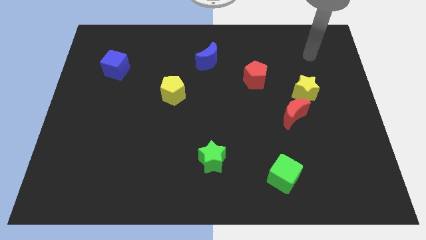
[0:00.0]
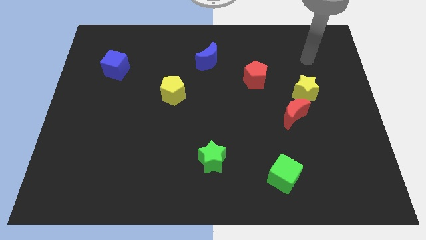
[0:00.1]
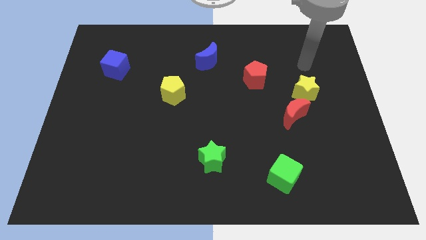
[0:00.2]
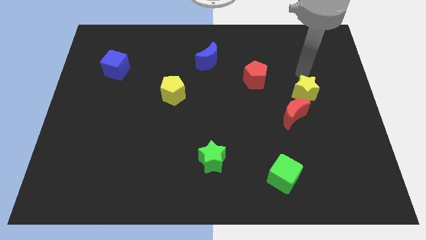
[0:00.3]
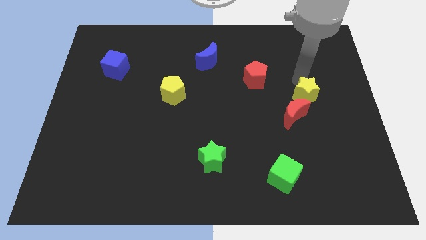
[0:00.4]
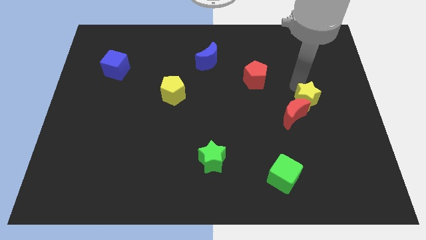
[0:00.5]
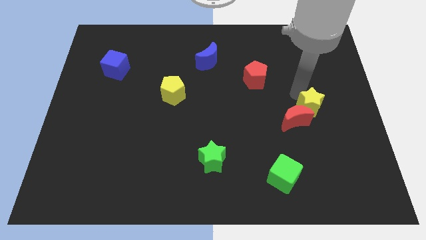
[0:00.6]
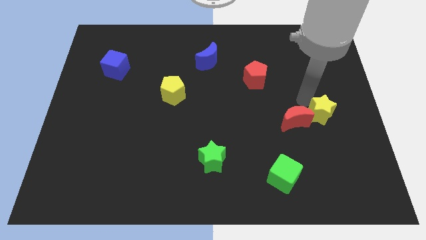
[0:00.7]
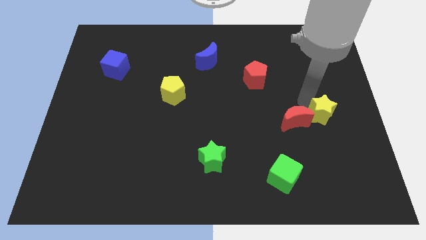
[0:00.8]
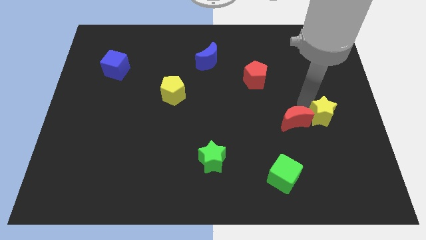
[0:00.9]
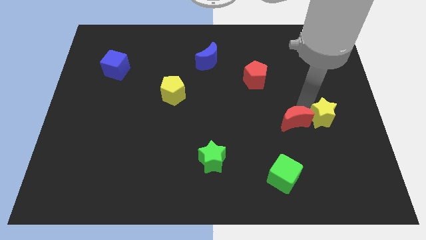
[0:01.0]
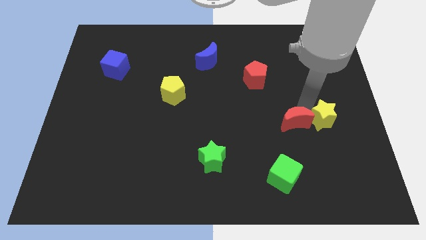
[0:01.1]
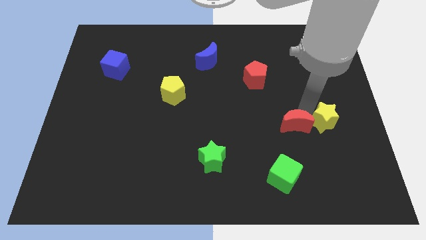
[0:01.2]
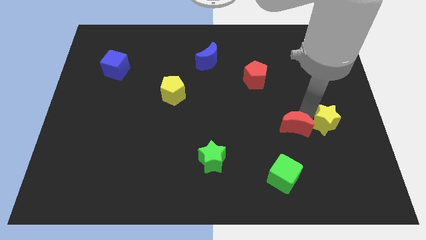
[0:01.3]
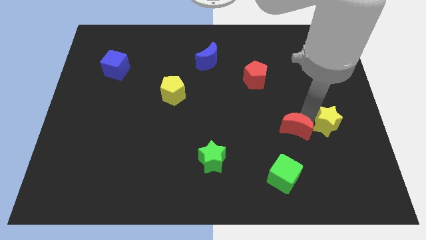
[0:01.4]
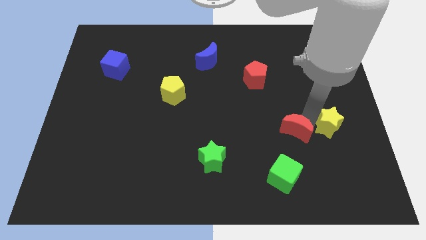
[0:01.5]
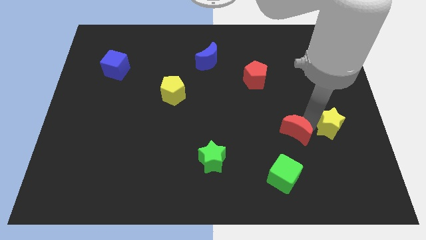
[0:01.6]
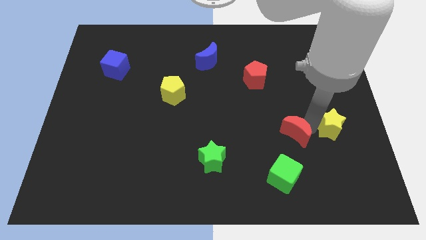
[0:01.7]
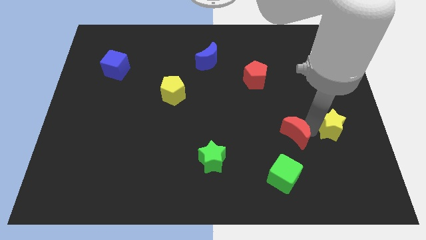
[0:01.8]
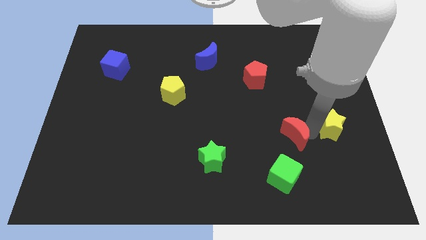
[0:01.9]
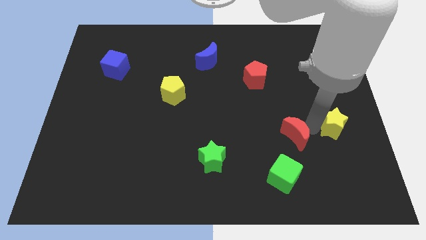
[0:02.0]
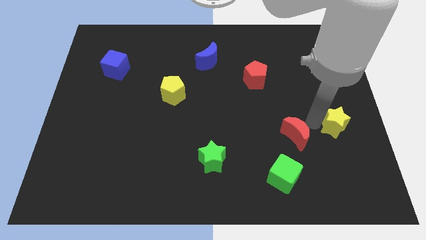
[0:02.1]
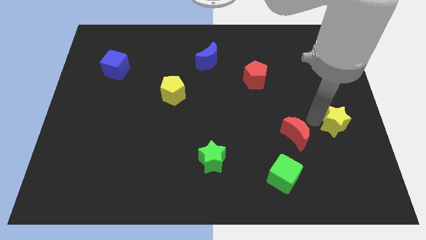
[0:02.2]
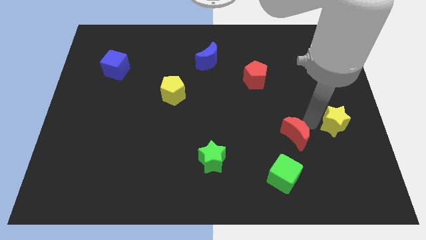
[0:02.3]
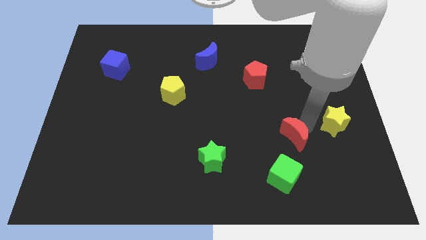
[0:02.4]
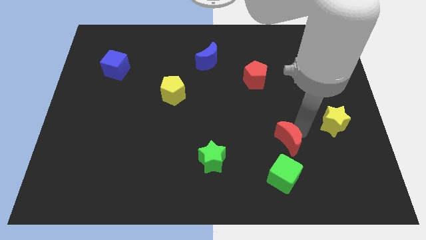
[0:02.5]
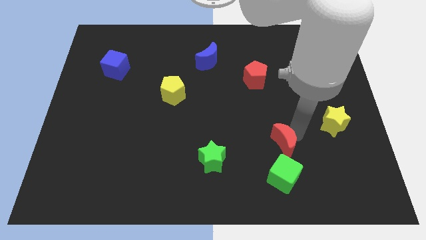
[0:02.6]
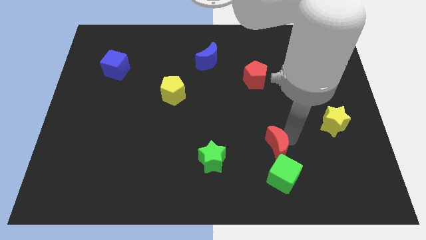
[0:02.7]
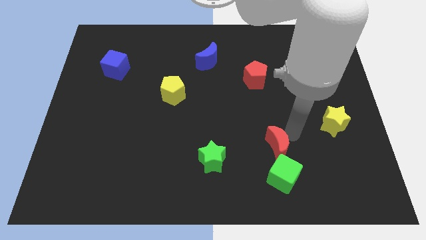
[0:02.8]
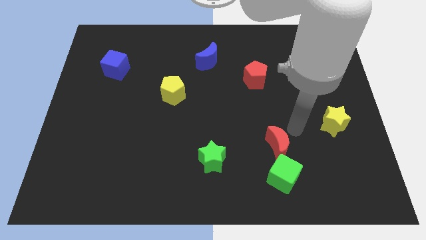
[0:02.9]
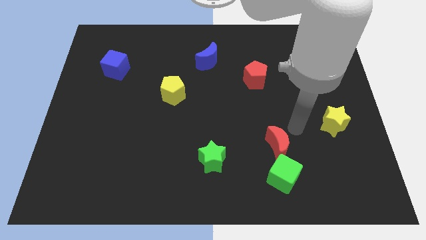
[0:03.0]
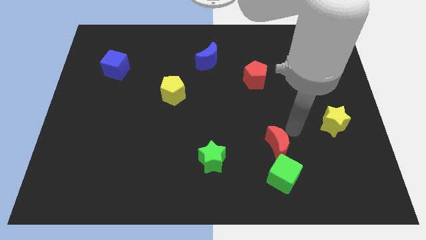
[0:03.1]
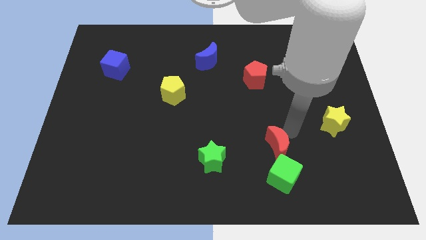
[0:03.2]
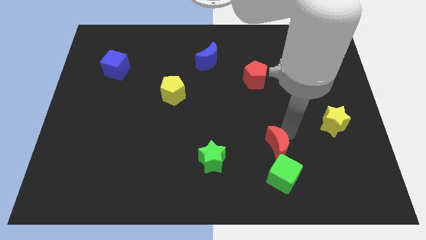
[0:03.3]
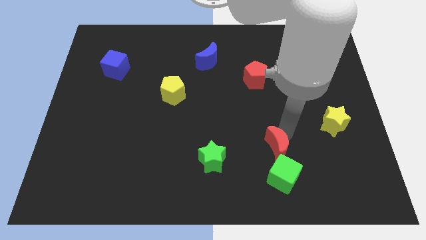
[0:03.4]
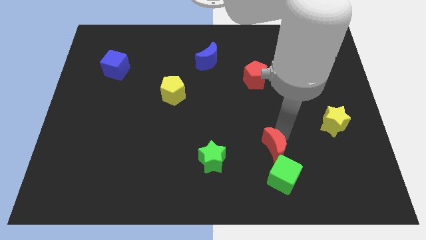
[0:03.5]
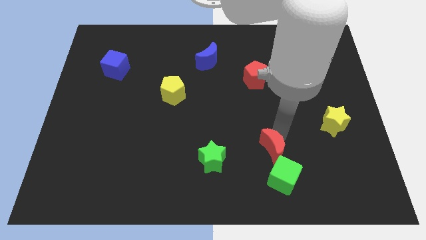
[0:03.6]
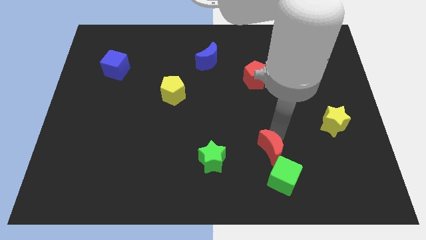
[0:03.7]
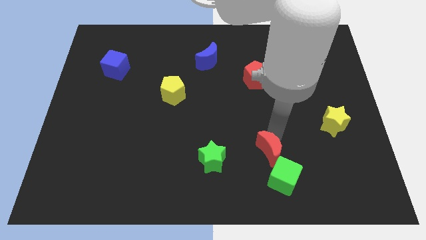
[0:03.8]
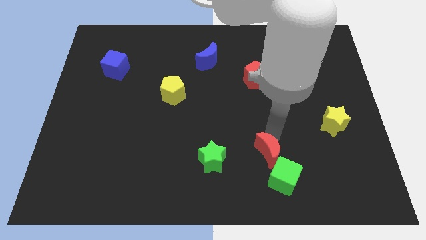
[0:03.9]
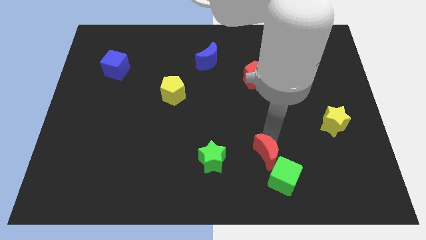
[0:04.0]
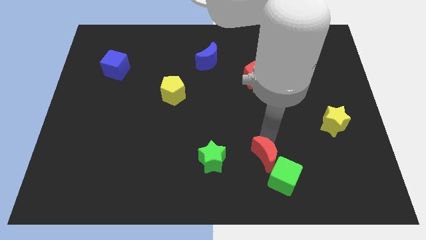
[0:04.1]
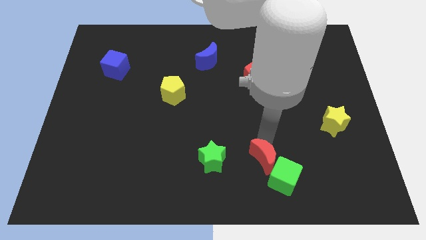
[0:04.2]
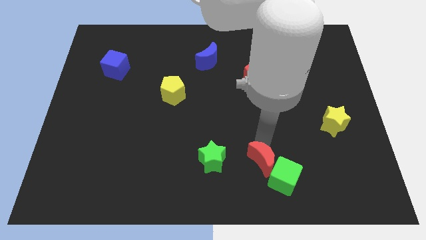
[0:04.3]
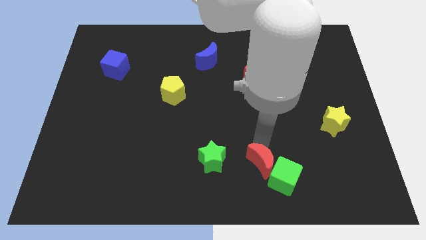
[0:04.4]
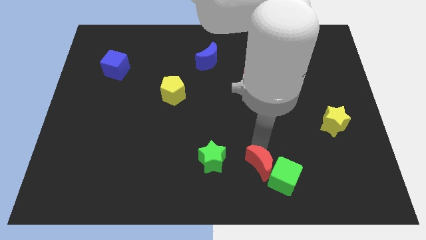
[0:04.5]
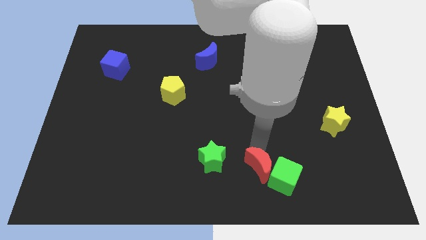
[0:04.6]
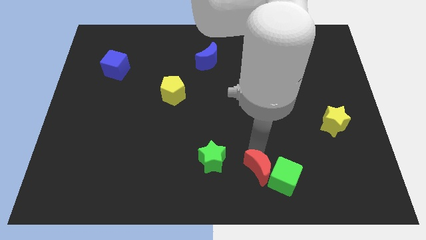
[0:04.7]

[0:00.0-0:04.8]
push the red moon to the bottom

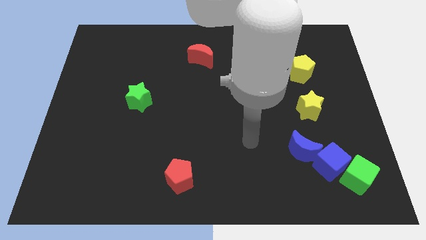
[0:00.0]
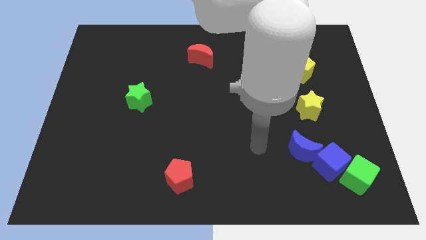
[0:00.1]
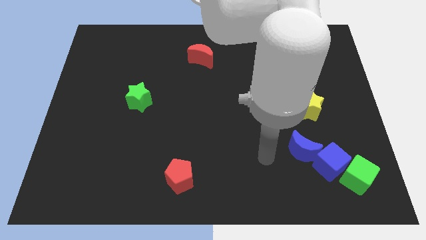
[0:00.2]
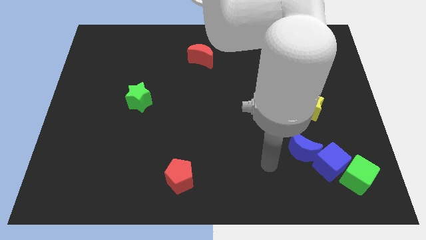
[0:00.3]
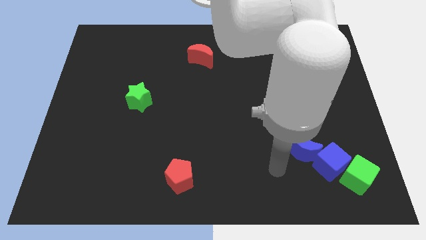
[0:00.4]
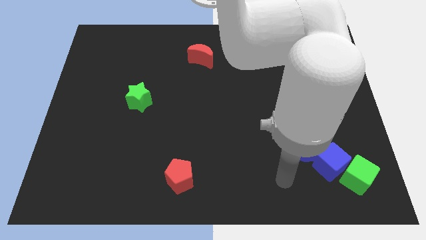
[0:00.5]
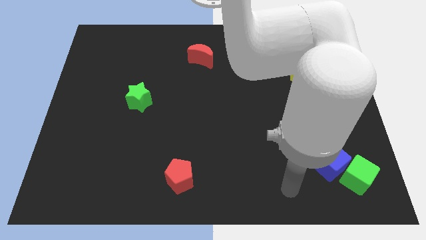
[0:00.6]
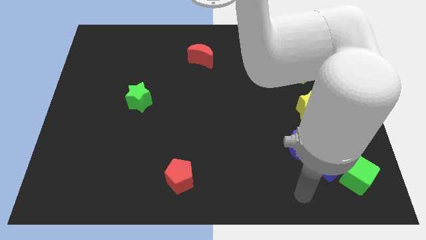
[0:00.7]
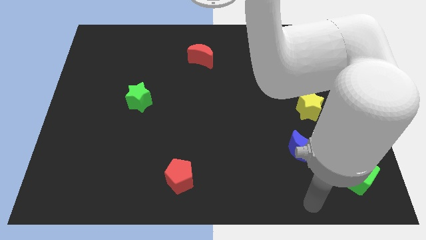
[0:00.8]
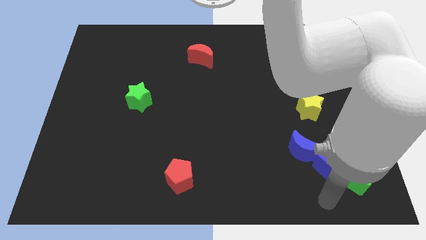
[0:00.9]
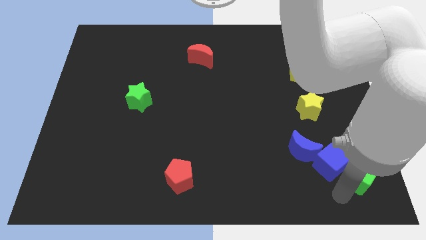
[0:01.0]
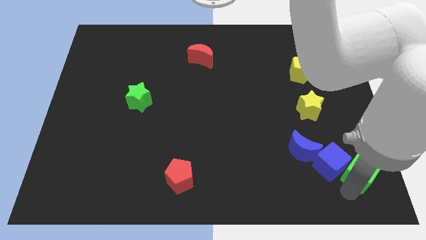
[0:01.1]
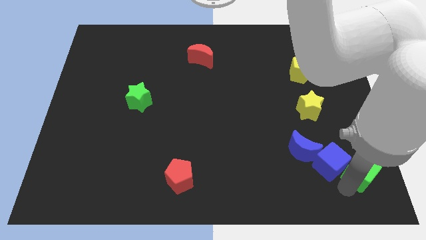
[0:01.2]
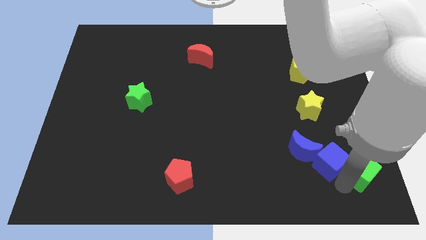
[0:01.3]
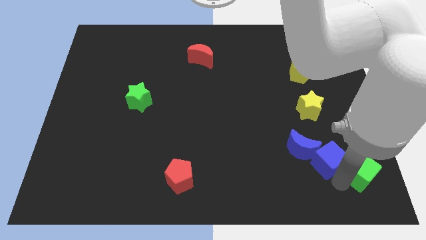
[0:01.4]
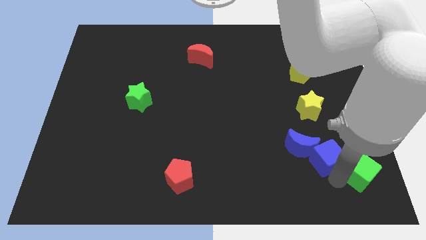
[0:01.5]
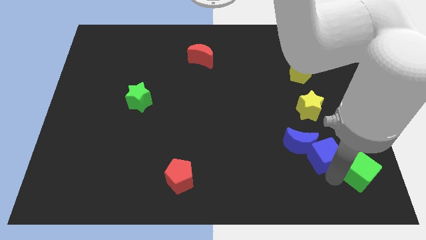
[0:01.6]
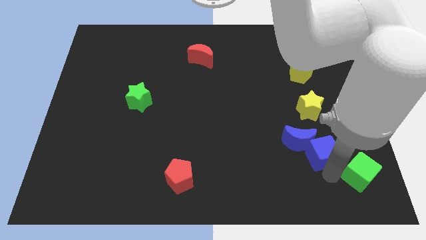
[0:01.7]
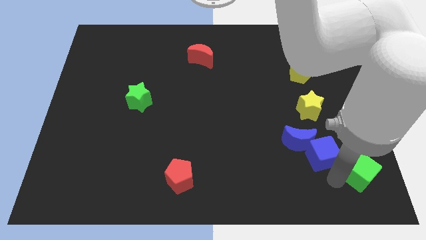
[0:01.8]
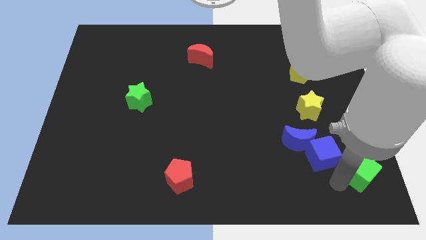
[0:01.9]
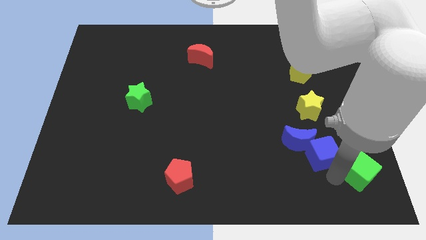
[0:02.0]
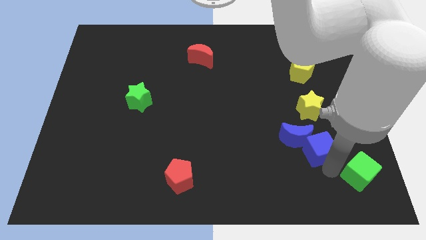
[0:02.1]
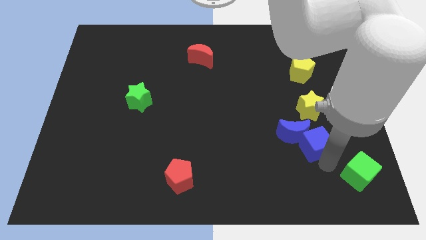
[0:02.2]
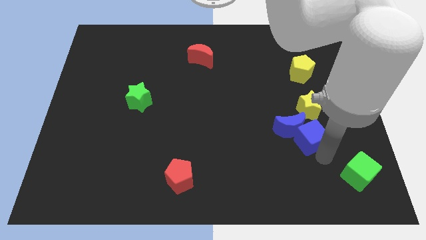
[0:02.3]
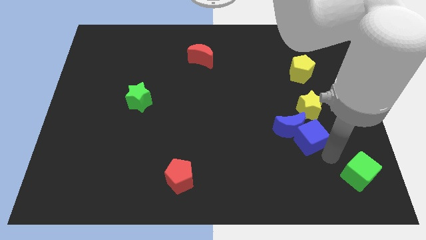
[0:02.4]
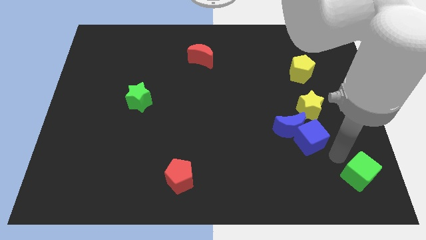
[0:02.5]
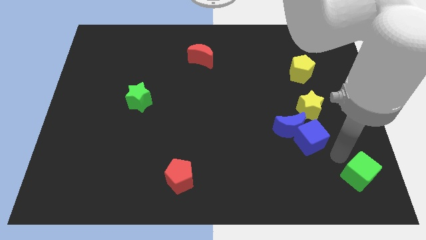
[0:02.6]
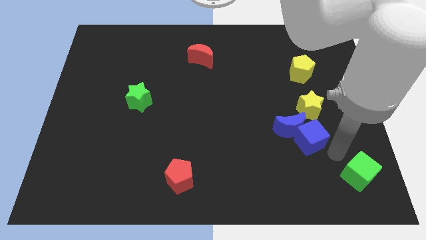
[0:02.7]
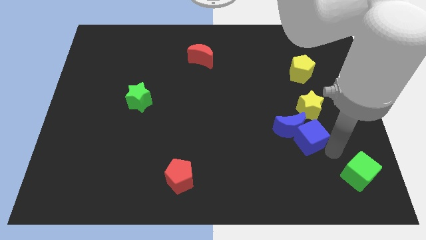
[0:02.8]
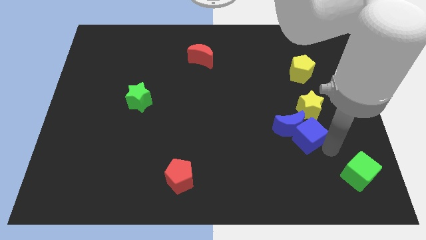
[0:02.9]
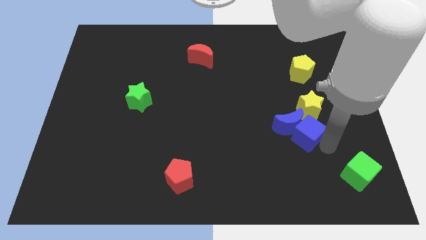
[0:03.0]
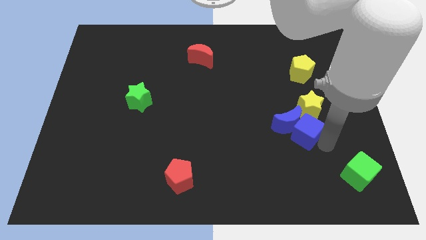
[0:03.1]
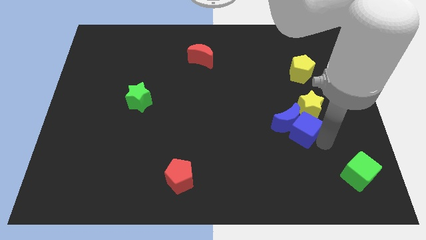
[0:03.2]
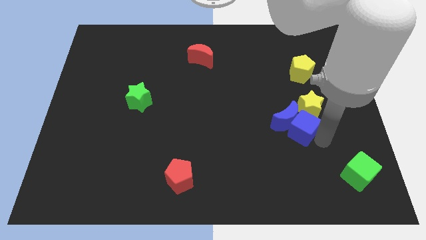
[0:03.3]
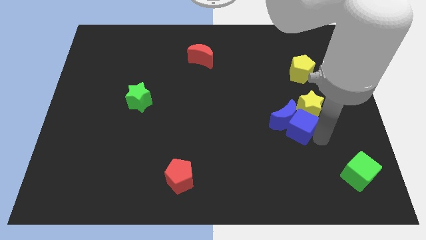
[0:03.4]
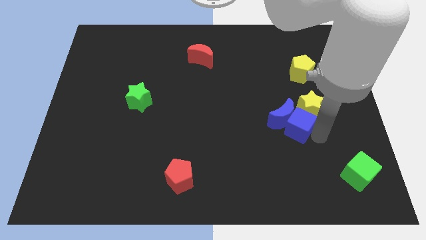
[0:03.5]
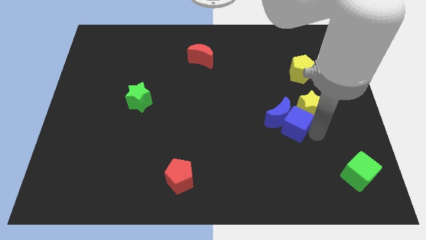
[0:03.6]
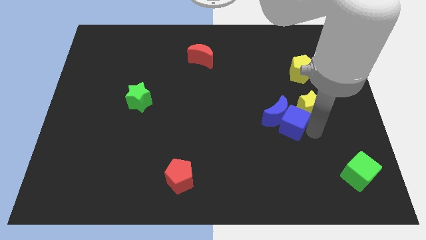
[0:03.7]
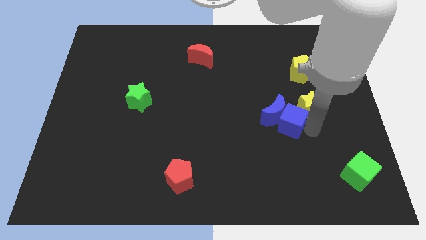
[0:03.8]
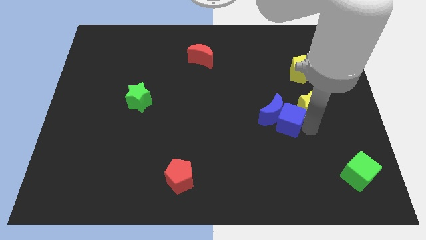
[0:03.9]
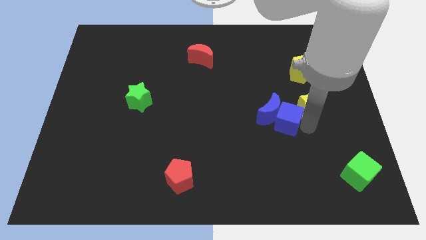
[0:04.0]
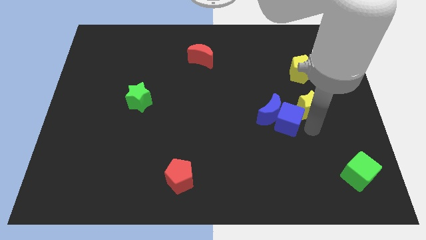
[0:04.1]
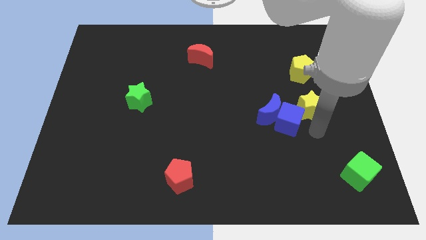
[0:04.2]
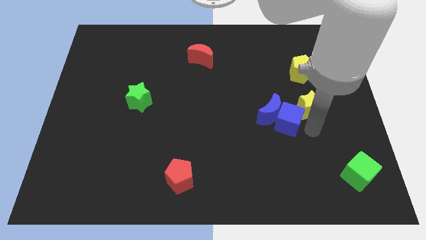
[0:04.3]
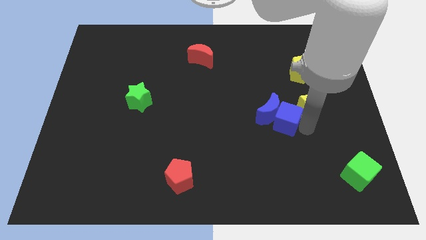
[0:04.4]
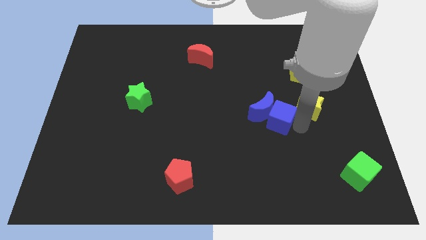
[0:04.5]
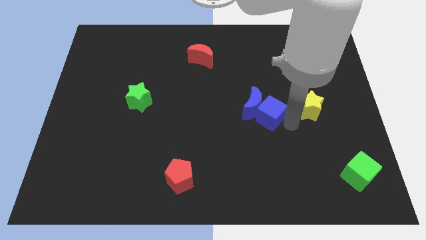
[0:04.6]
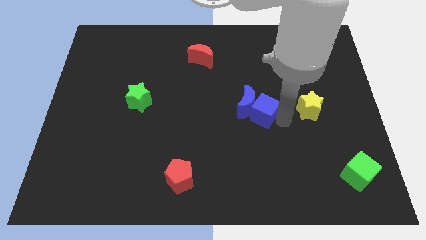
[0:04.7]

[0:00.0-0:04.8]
move the blue cube to the middle
